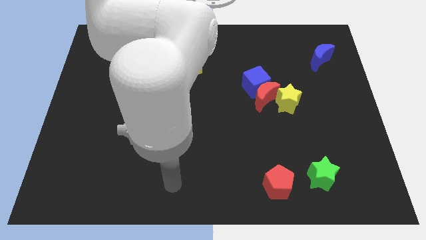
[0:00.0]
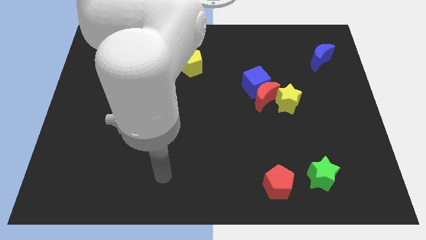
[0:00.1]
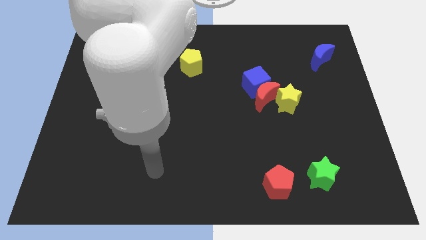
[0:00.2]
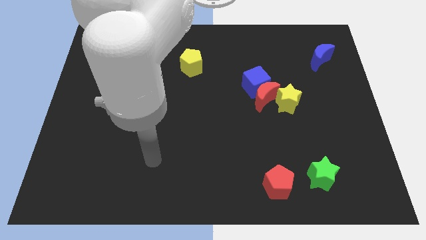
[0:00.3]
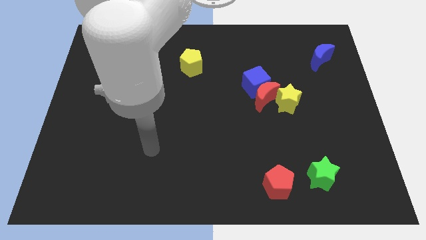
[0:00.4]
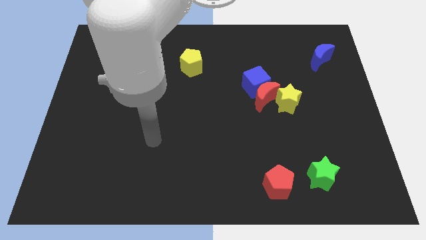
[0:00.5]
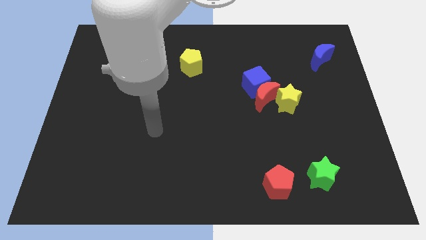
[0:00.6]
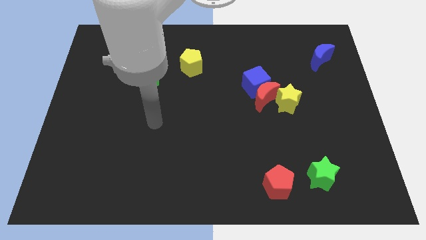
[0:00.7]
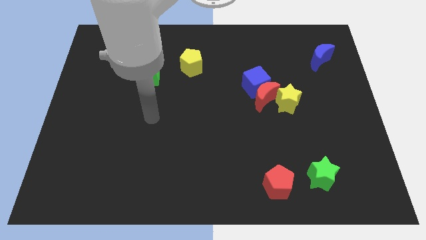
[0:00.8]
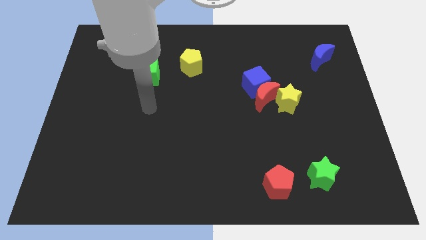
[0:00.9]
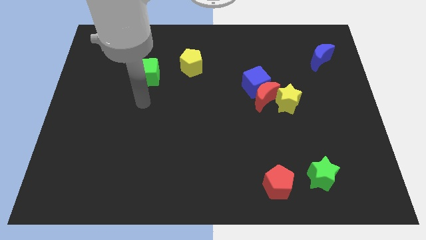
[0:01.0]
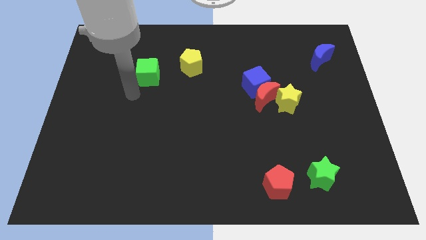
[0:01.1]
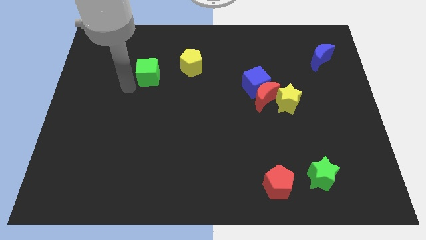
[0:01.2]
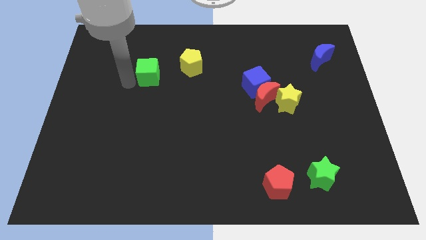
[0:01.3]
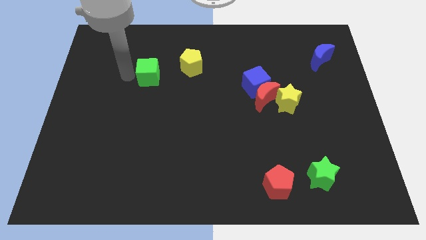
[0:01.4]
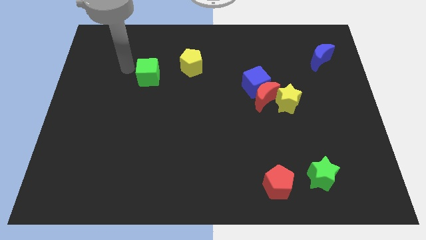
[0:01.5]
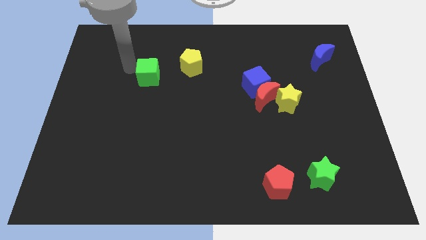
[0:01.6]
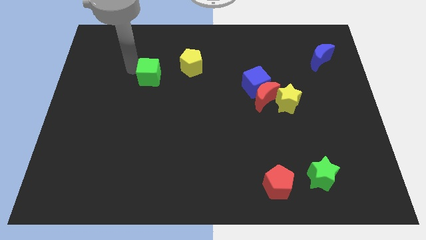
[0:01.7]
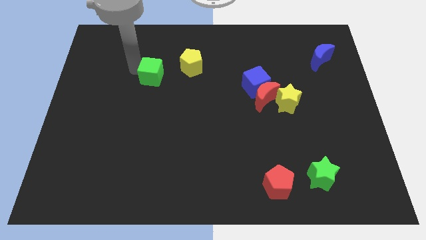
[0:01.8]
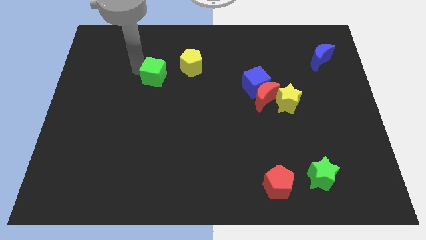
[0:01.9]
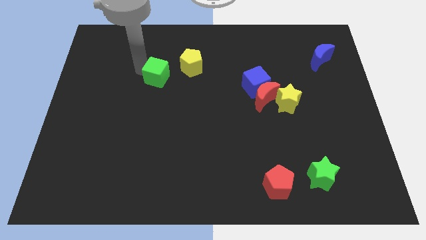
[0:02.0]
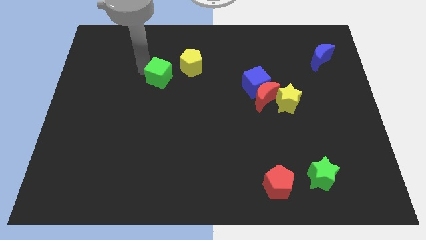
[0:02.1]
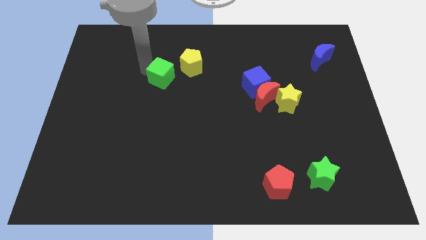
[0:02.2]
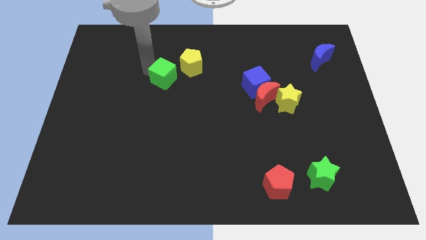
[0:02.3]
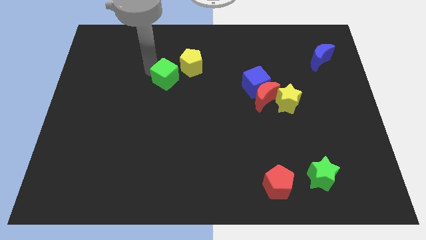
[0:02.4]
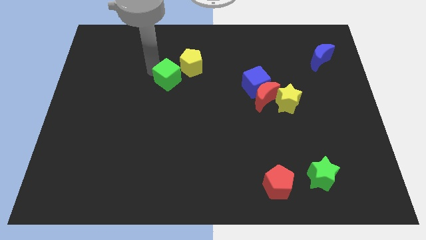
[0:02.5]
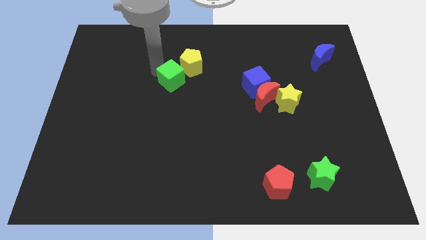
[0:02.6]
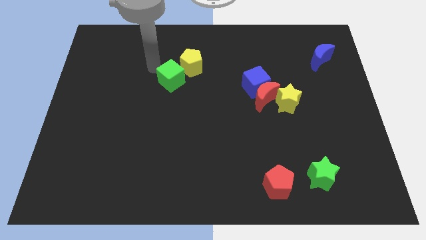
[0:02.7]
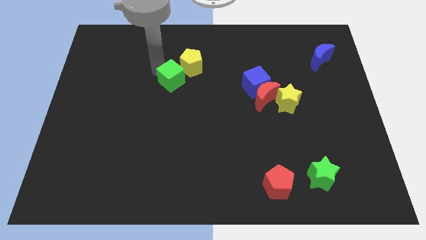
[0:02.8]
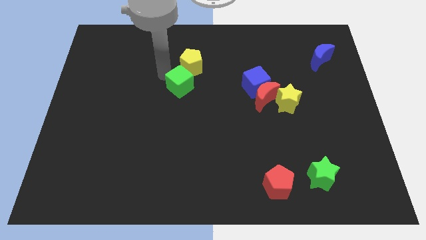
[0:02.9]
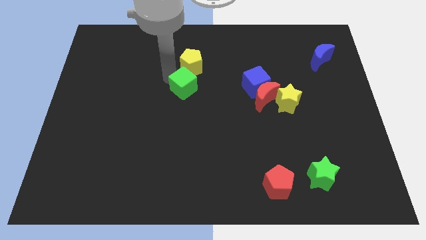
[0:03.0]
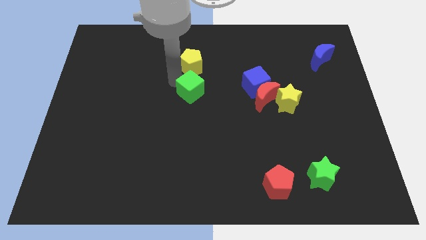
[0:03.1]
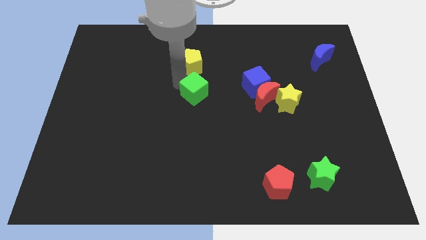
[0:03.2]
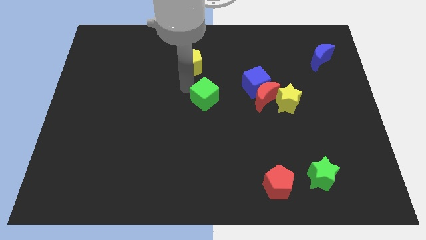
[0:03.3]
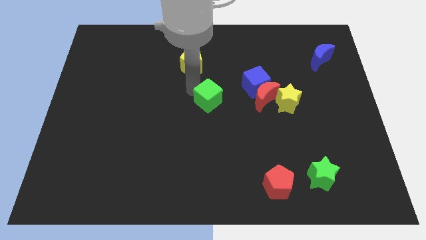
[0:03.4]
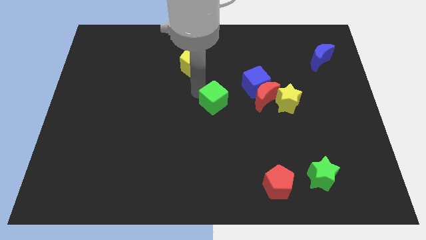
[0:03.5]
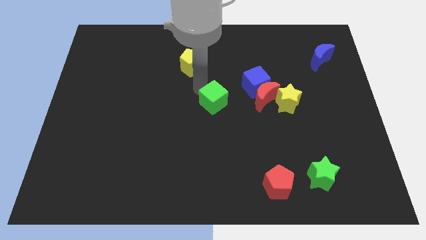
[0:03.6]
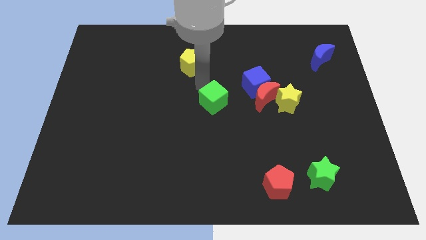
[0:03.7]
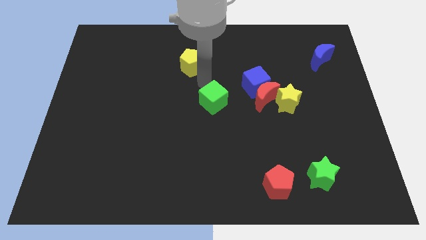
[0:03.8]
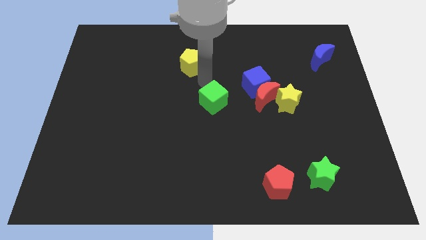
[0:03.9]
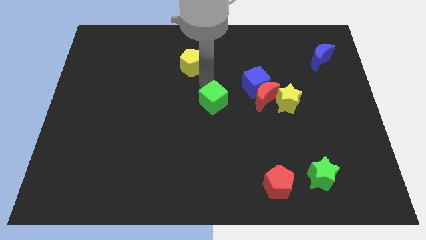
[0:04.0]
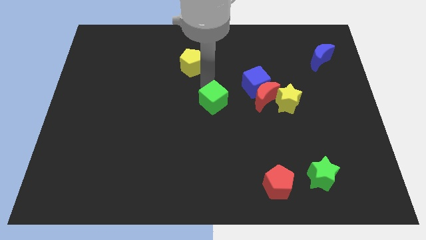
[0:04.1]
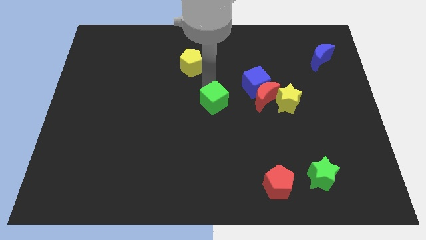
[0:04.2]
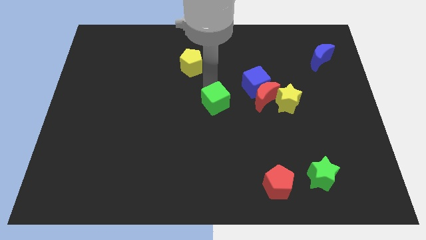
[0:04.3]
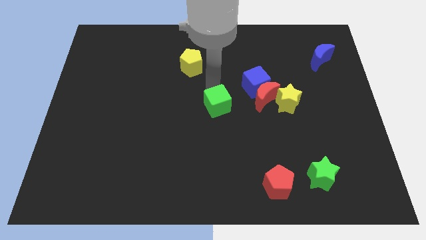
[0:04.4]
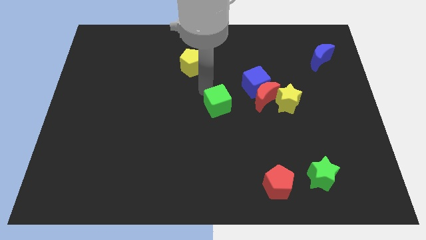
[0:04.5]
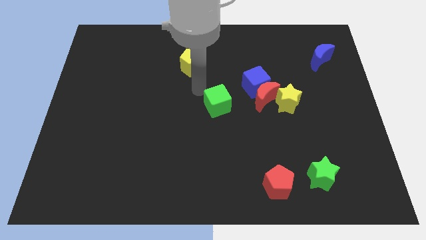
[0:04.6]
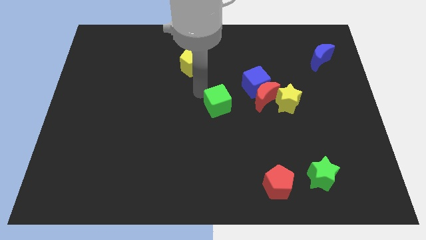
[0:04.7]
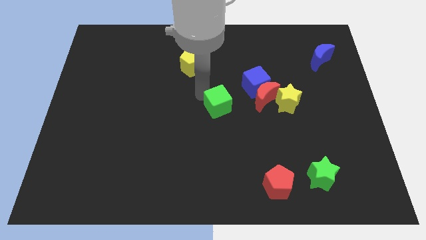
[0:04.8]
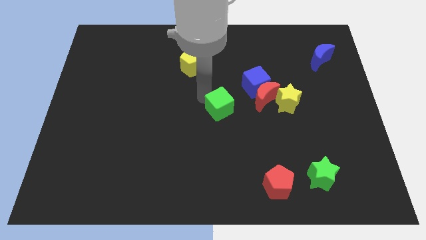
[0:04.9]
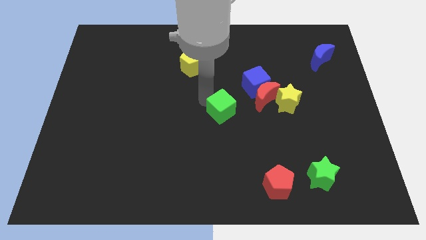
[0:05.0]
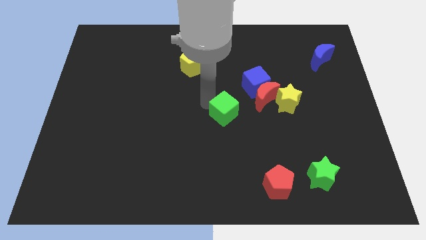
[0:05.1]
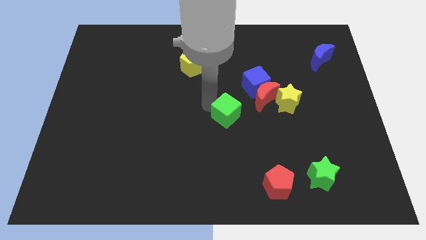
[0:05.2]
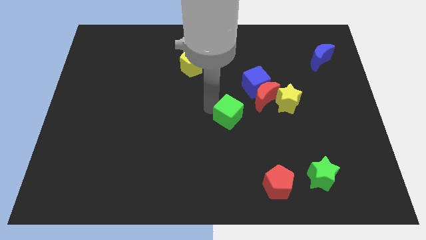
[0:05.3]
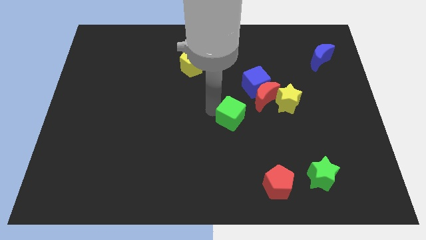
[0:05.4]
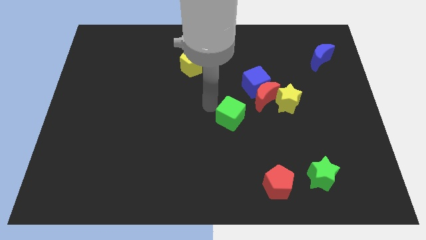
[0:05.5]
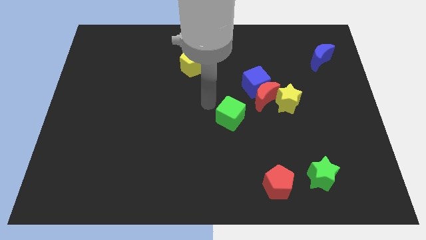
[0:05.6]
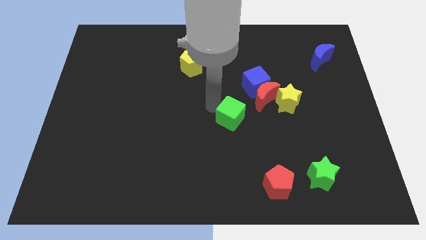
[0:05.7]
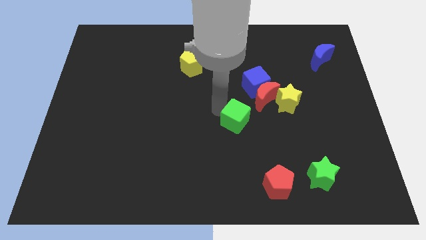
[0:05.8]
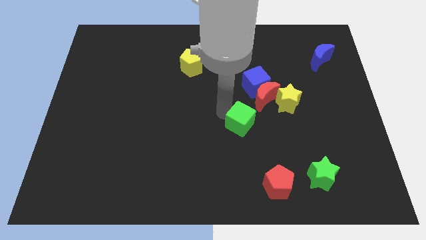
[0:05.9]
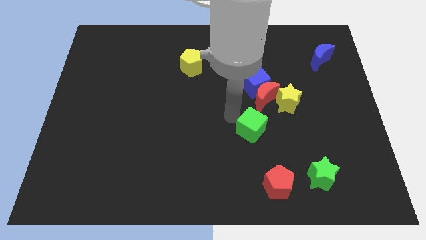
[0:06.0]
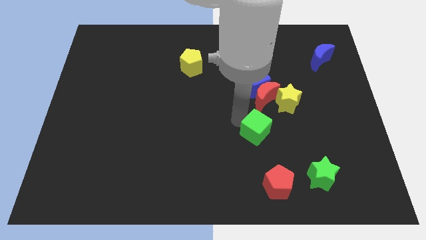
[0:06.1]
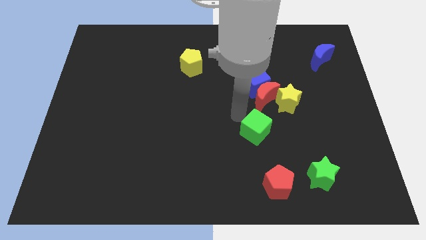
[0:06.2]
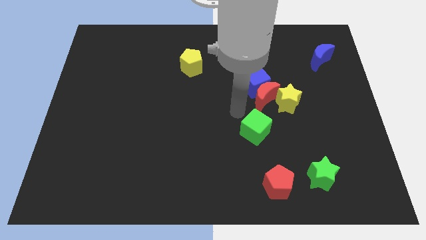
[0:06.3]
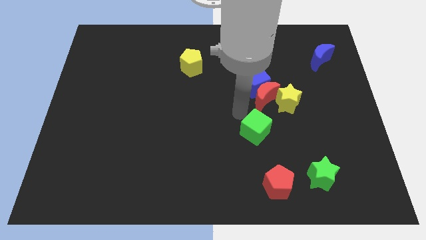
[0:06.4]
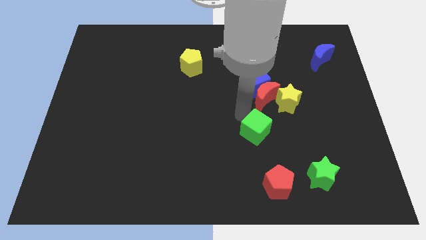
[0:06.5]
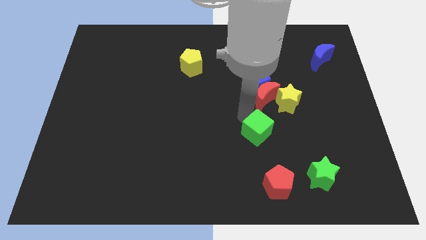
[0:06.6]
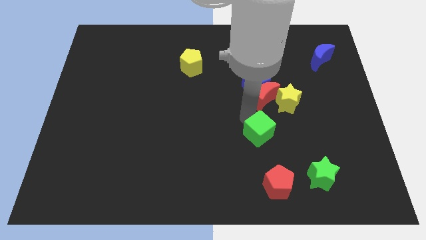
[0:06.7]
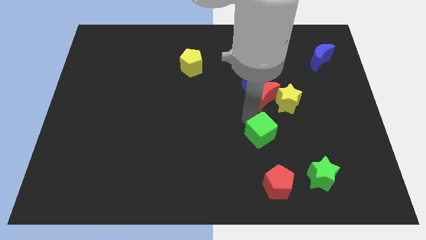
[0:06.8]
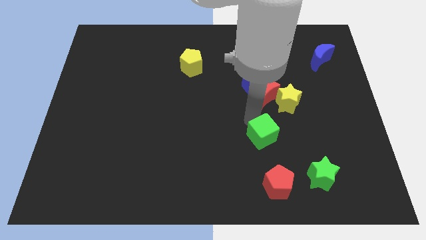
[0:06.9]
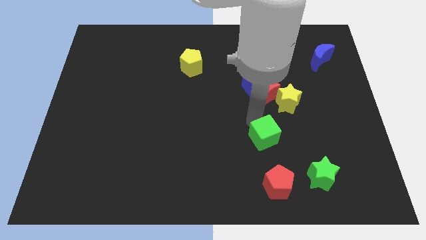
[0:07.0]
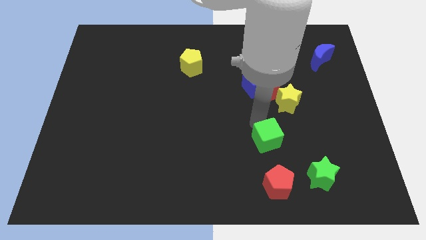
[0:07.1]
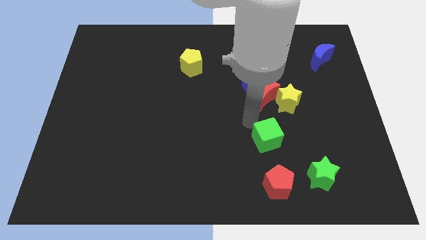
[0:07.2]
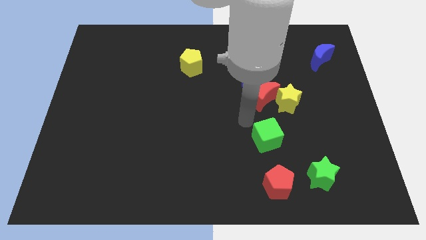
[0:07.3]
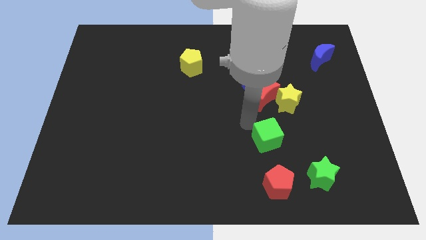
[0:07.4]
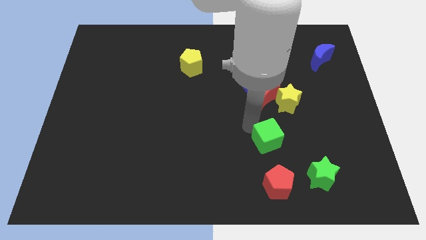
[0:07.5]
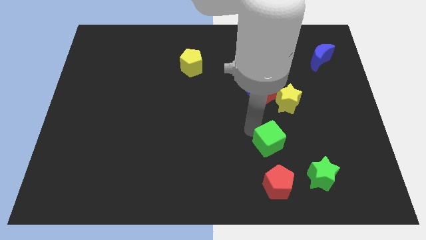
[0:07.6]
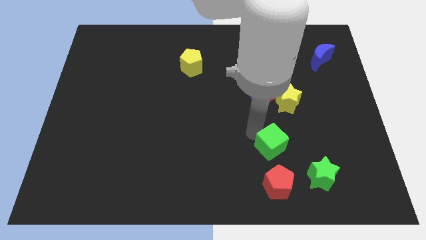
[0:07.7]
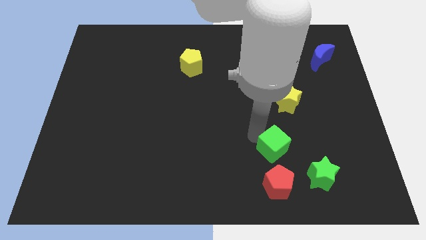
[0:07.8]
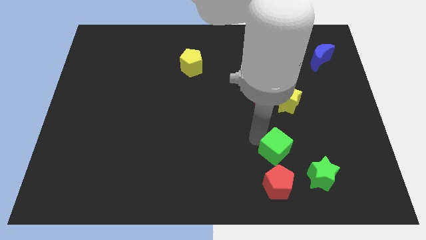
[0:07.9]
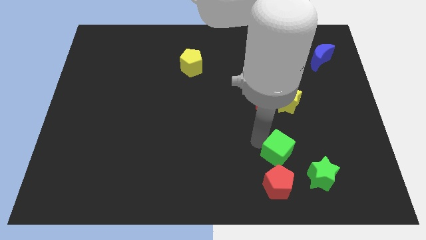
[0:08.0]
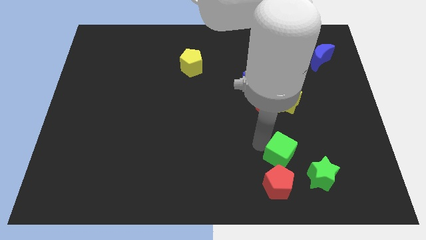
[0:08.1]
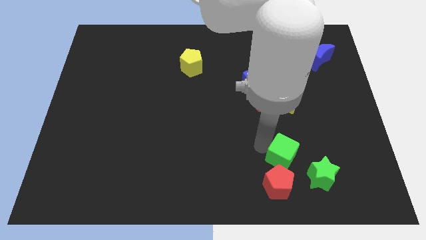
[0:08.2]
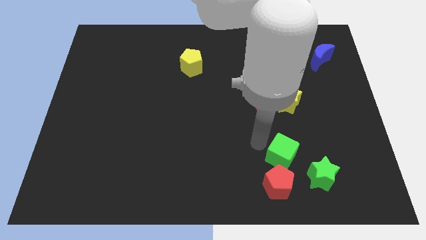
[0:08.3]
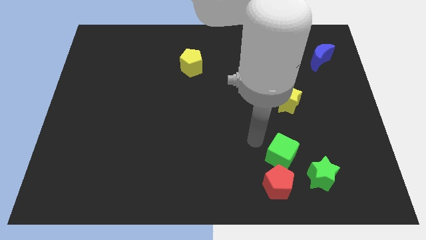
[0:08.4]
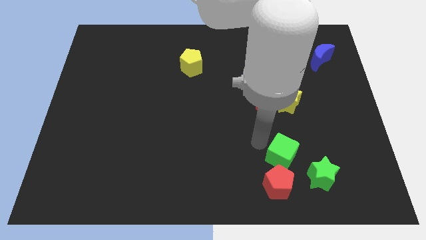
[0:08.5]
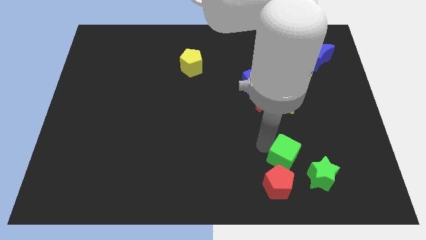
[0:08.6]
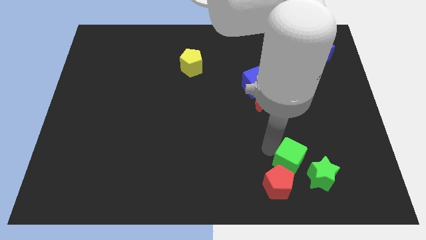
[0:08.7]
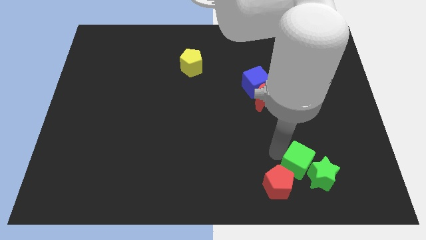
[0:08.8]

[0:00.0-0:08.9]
push the green cube towards the green star
